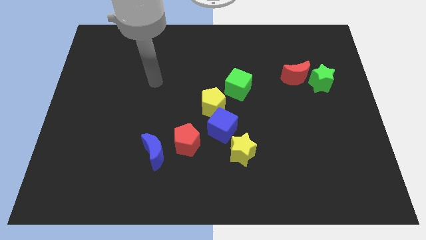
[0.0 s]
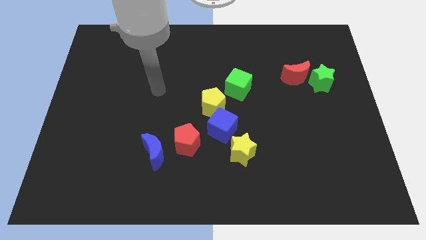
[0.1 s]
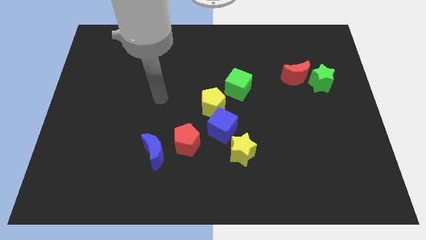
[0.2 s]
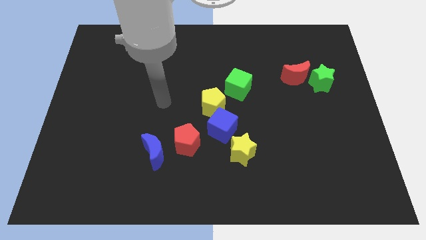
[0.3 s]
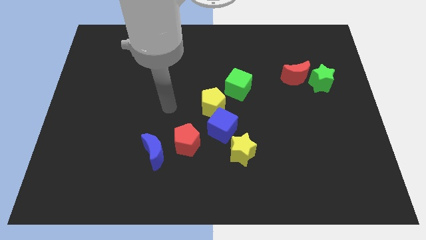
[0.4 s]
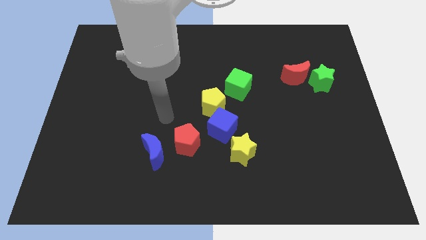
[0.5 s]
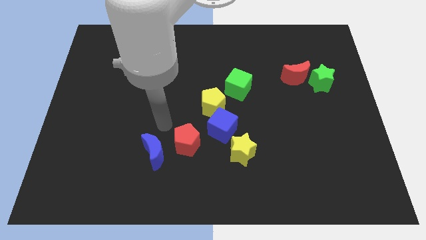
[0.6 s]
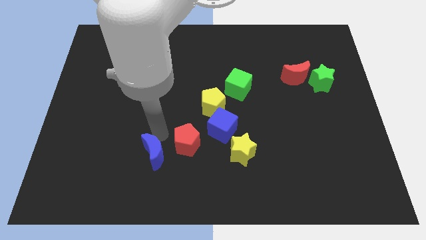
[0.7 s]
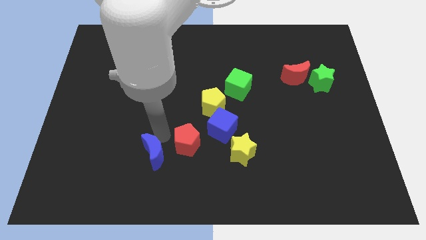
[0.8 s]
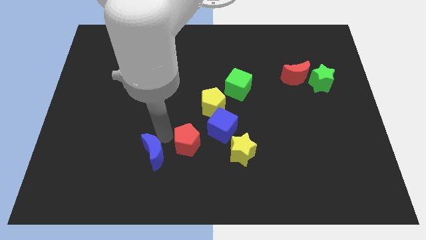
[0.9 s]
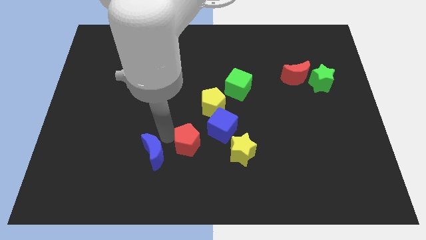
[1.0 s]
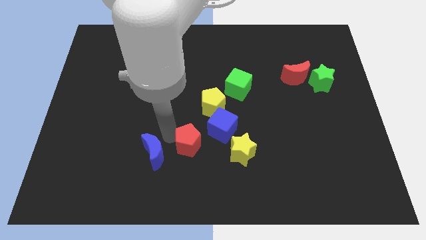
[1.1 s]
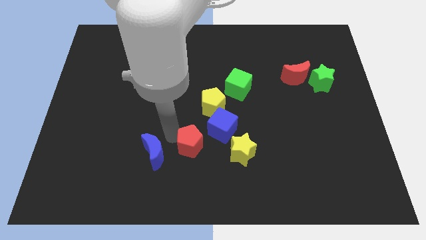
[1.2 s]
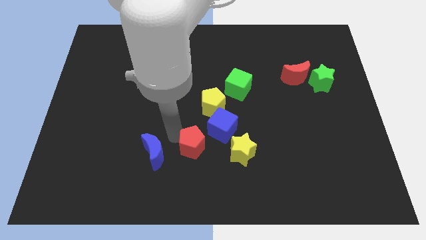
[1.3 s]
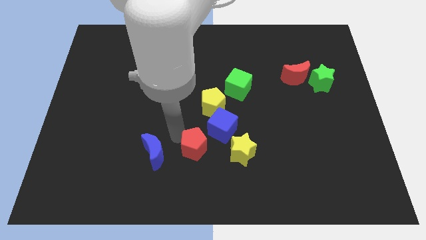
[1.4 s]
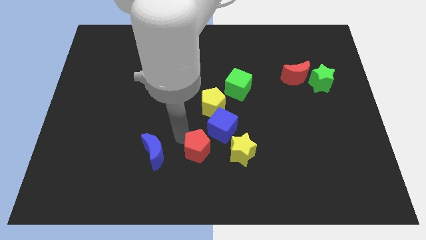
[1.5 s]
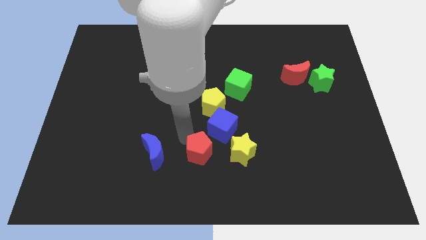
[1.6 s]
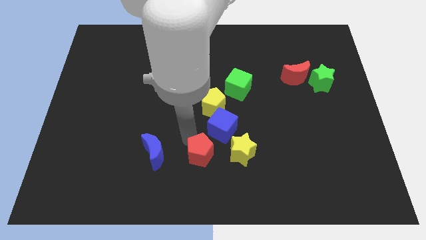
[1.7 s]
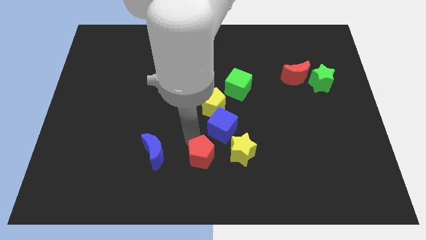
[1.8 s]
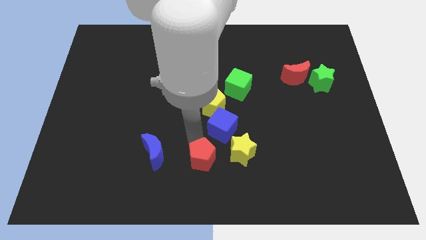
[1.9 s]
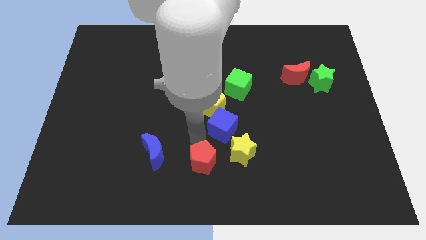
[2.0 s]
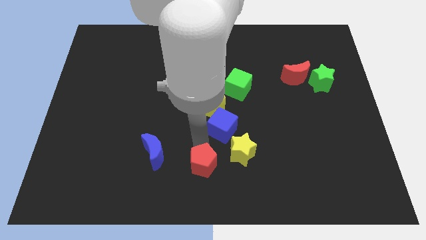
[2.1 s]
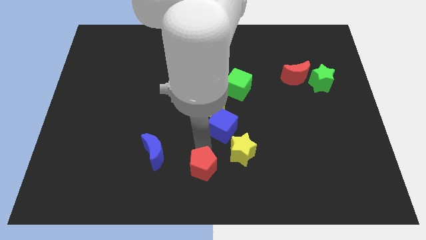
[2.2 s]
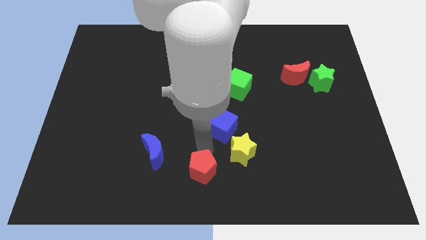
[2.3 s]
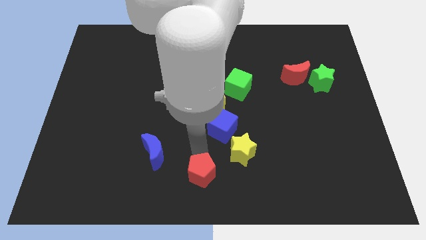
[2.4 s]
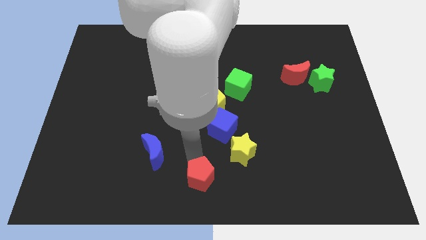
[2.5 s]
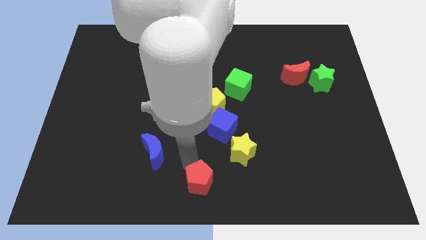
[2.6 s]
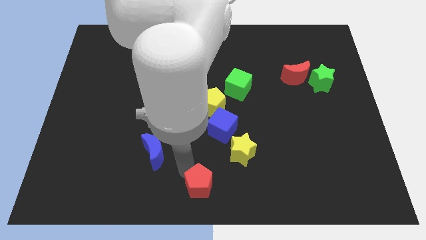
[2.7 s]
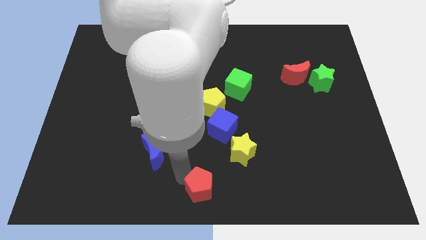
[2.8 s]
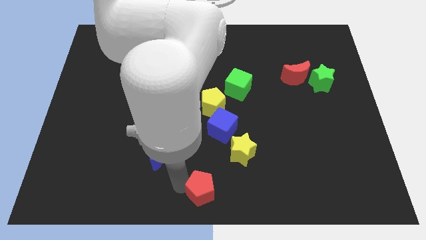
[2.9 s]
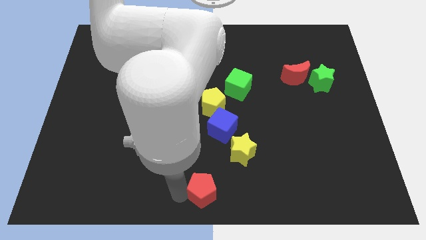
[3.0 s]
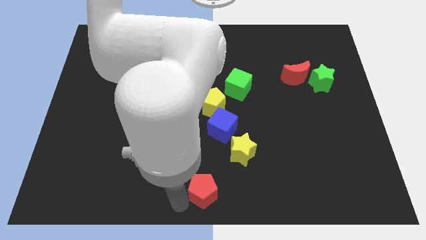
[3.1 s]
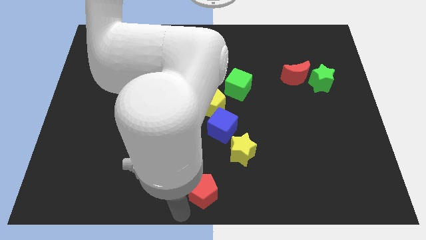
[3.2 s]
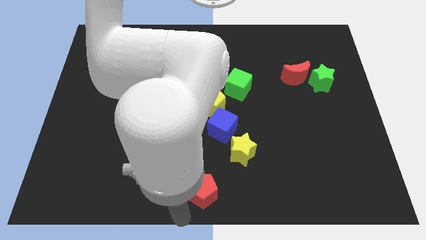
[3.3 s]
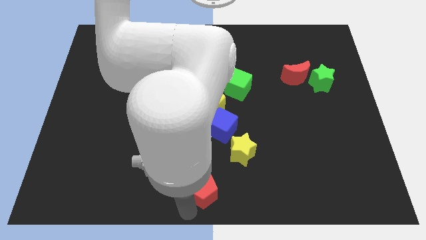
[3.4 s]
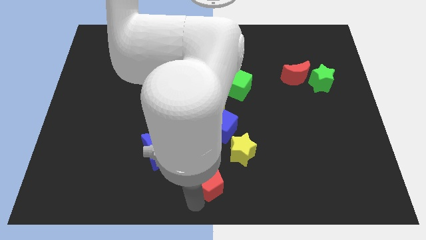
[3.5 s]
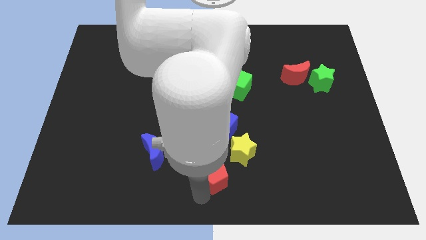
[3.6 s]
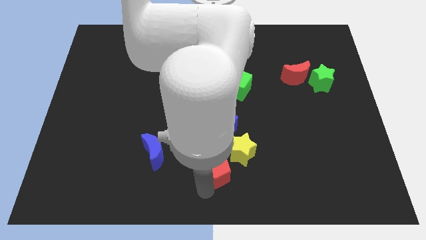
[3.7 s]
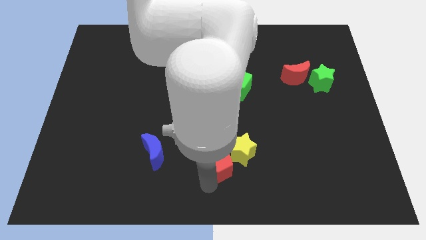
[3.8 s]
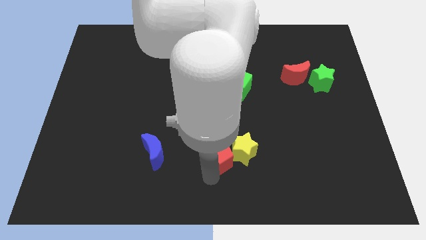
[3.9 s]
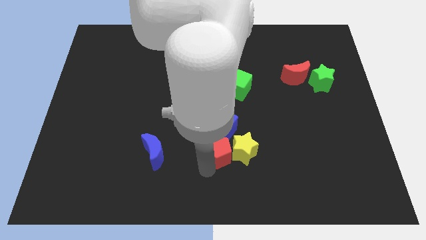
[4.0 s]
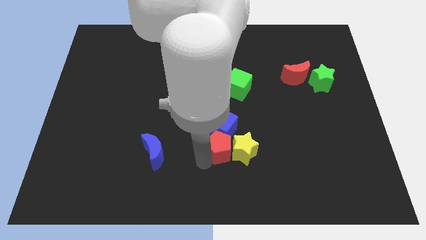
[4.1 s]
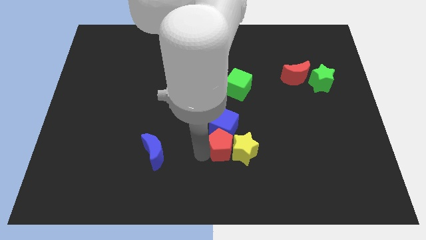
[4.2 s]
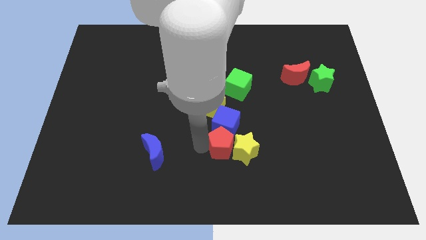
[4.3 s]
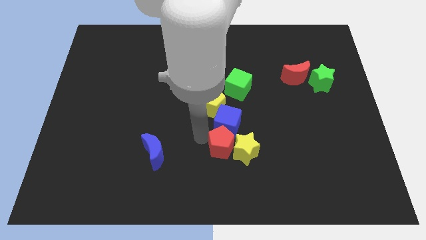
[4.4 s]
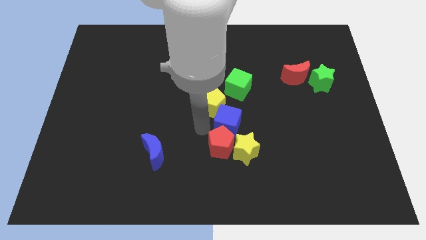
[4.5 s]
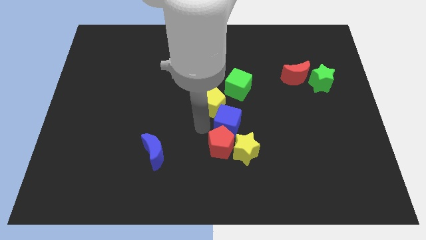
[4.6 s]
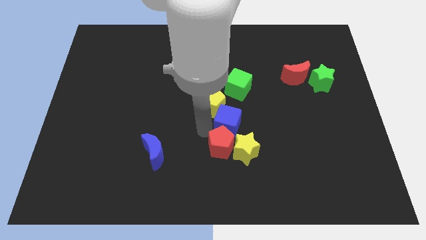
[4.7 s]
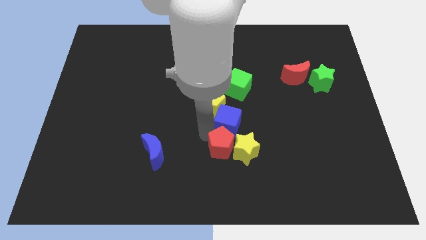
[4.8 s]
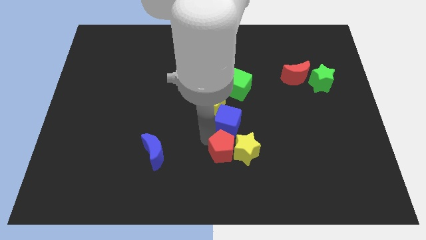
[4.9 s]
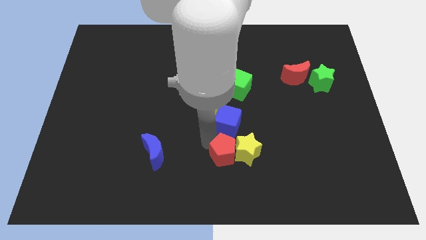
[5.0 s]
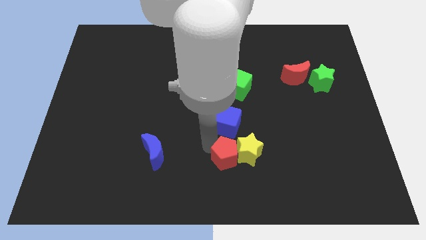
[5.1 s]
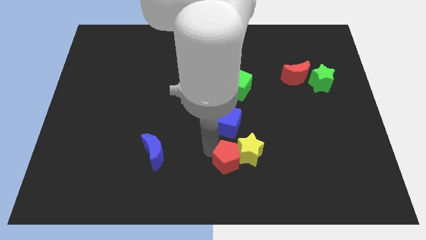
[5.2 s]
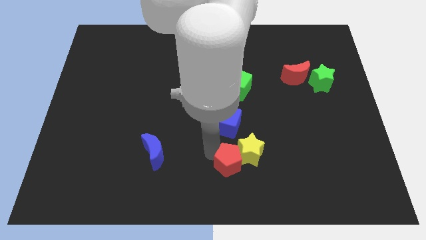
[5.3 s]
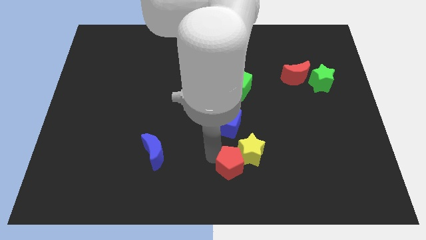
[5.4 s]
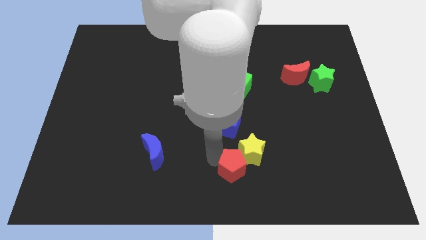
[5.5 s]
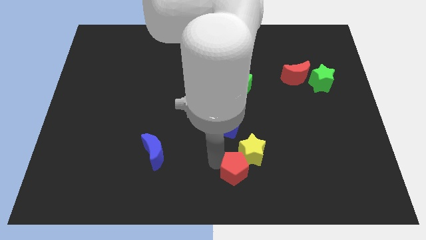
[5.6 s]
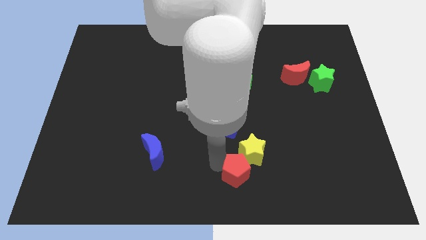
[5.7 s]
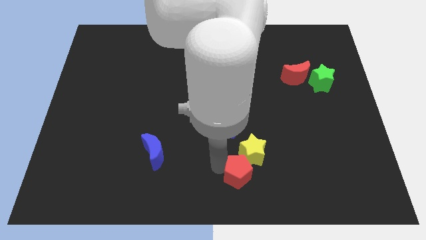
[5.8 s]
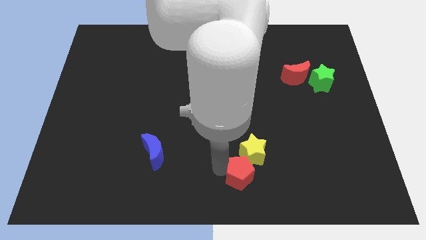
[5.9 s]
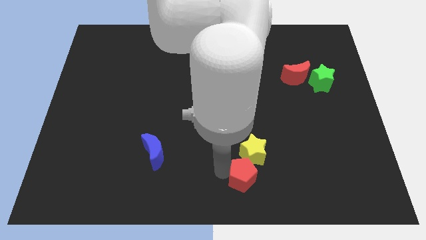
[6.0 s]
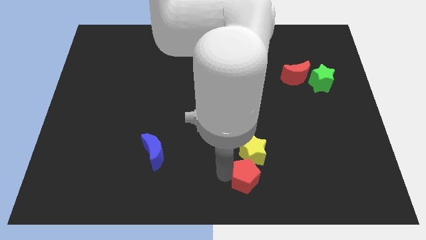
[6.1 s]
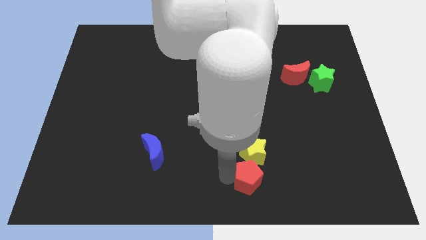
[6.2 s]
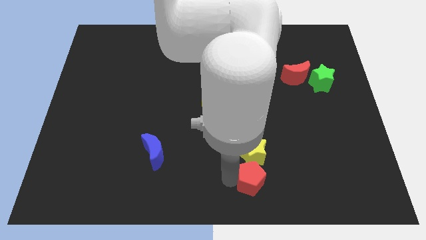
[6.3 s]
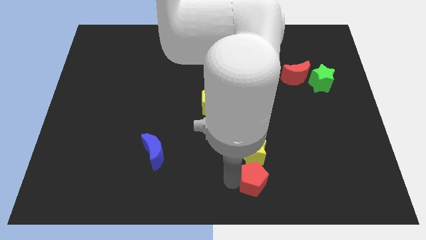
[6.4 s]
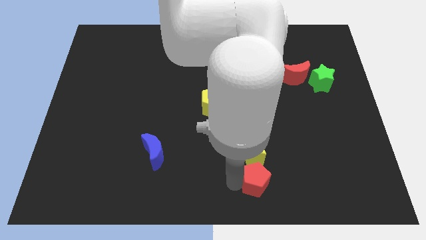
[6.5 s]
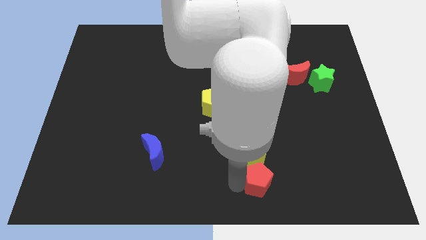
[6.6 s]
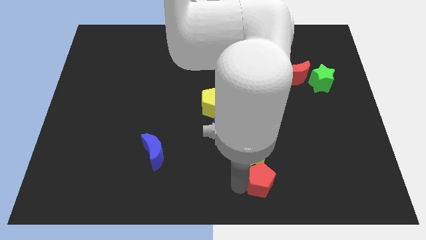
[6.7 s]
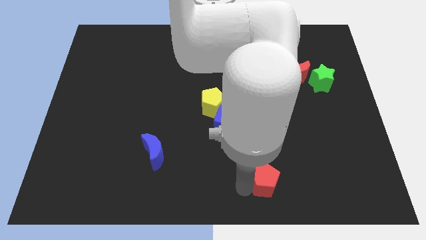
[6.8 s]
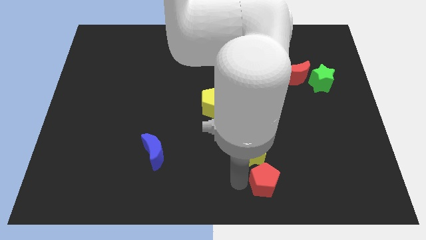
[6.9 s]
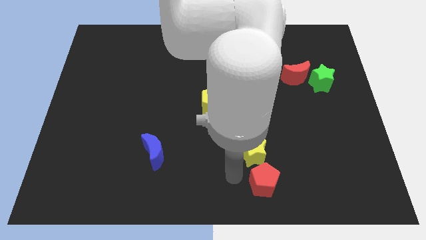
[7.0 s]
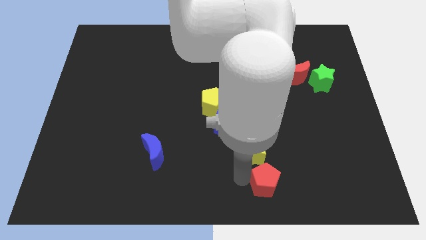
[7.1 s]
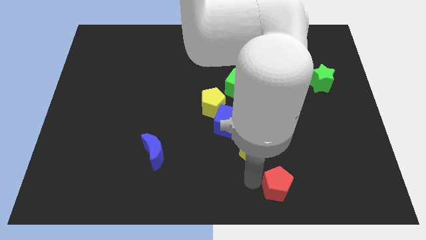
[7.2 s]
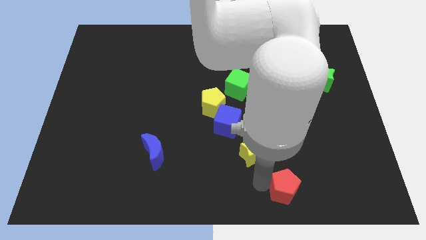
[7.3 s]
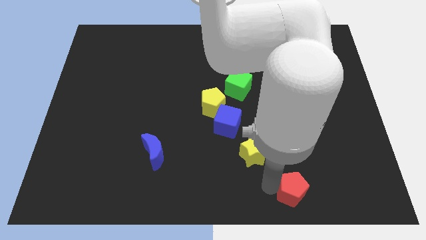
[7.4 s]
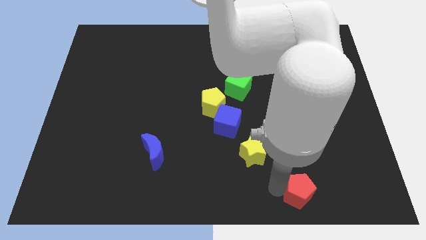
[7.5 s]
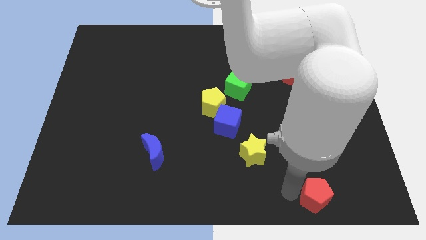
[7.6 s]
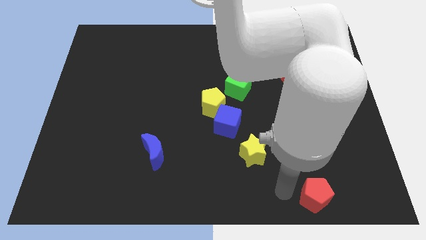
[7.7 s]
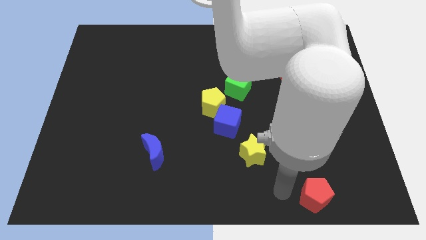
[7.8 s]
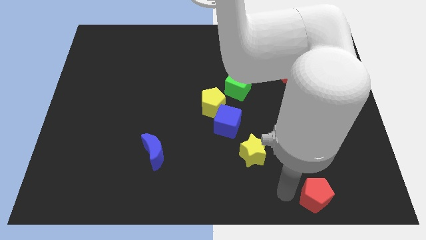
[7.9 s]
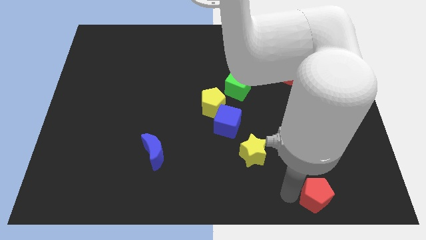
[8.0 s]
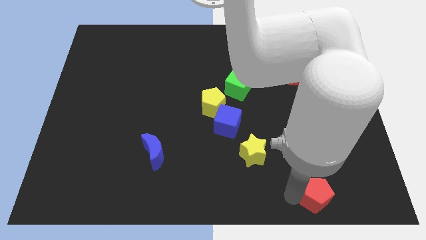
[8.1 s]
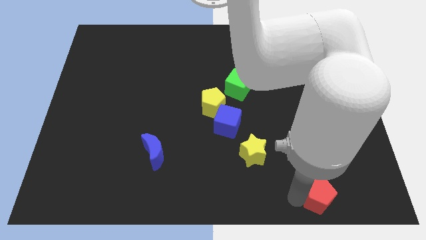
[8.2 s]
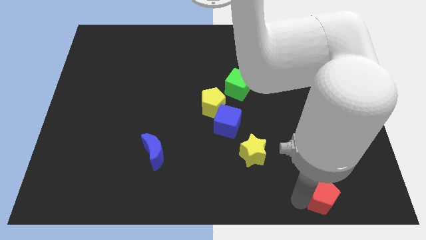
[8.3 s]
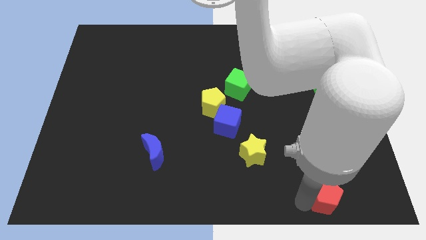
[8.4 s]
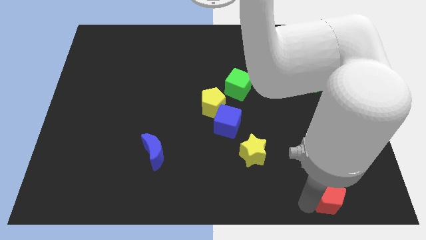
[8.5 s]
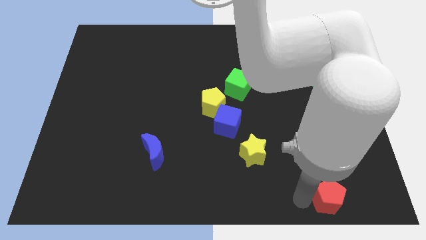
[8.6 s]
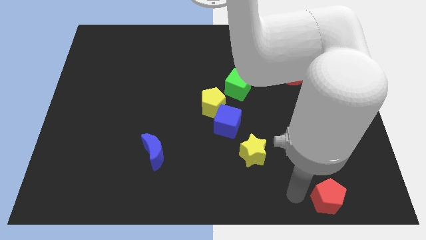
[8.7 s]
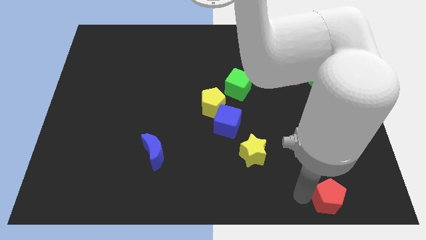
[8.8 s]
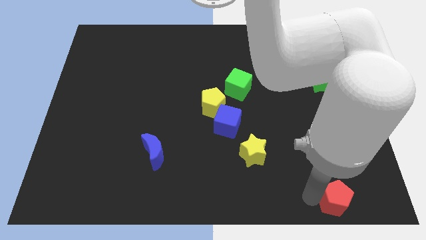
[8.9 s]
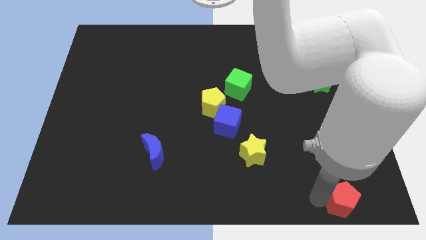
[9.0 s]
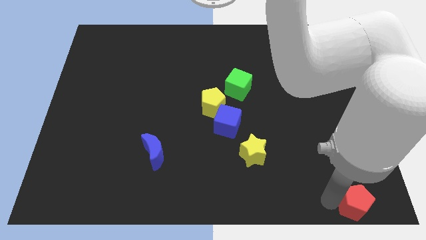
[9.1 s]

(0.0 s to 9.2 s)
slide the red pentagon to the bottom right of the board
